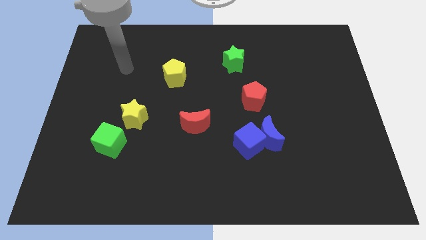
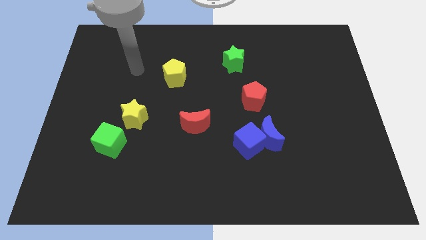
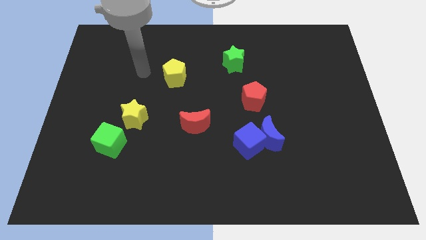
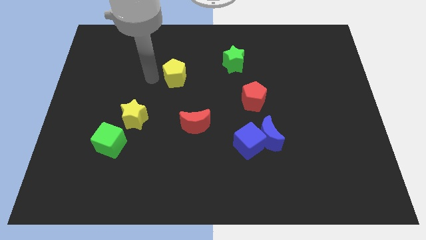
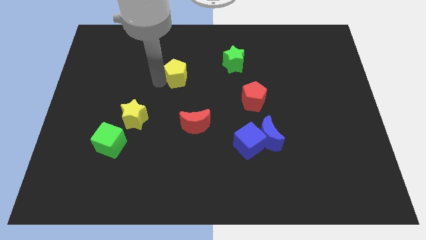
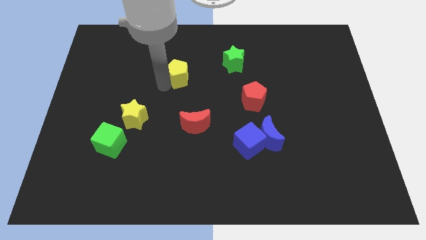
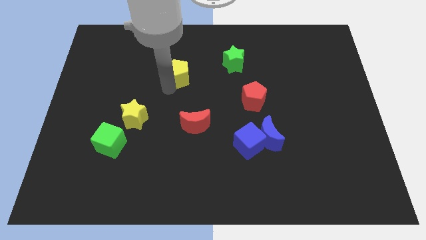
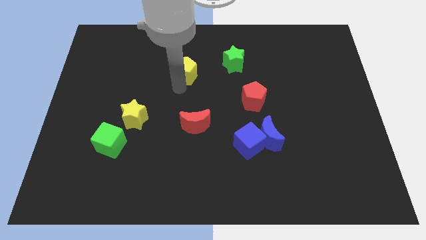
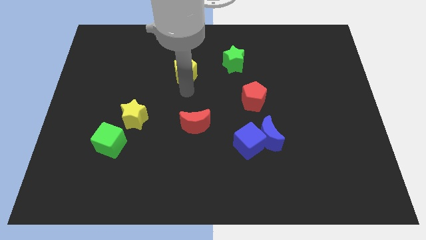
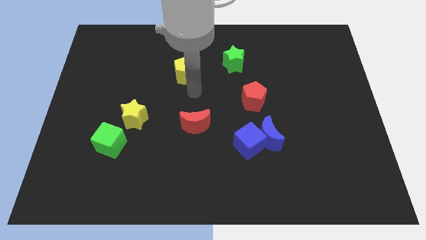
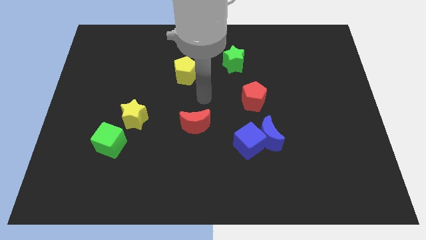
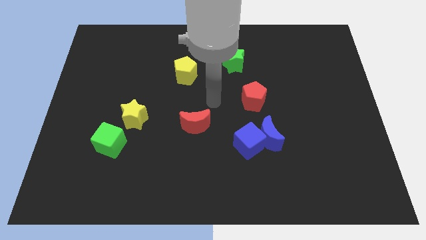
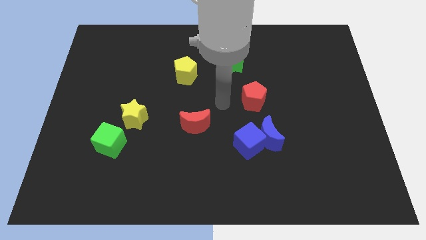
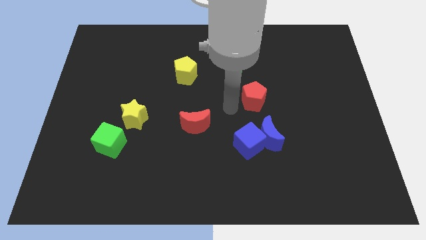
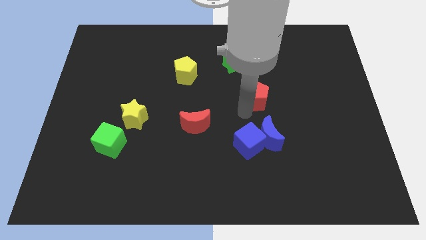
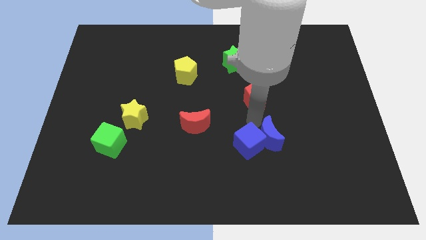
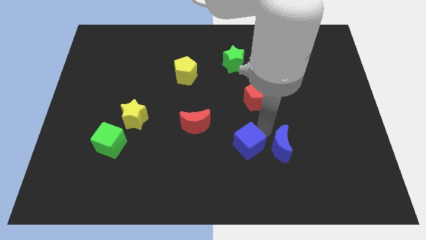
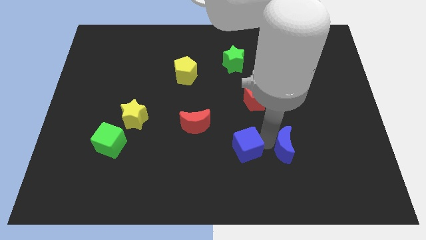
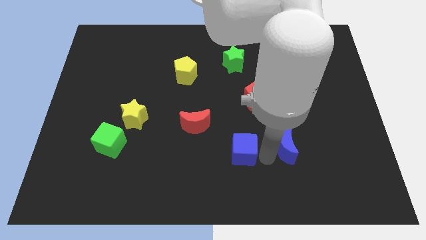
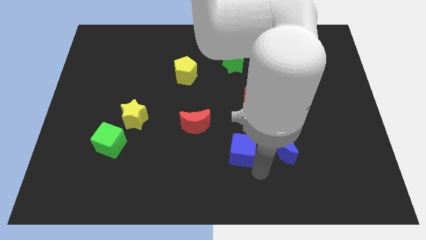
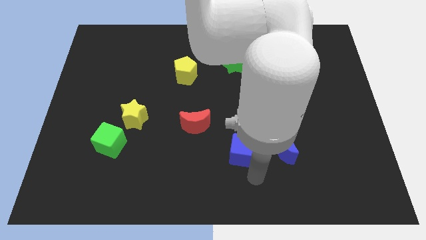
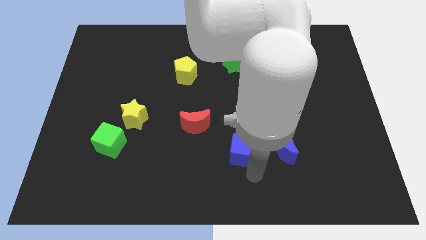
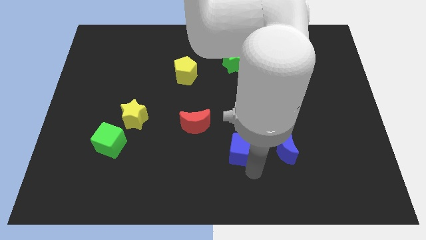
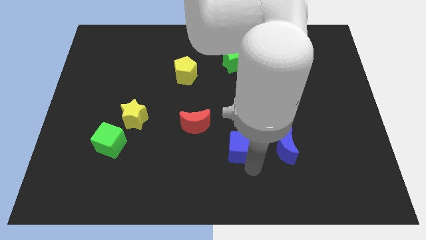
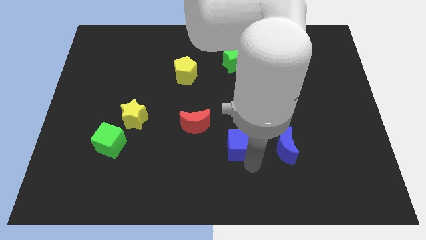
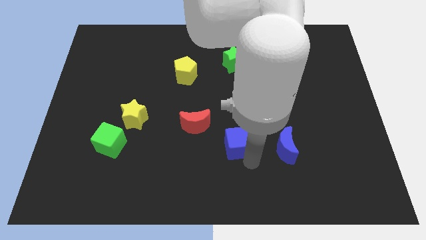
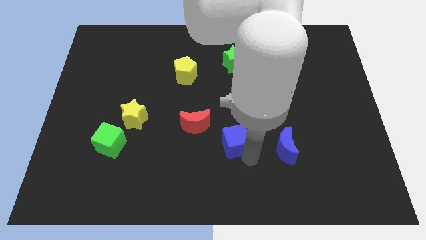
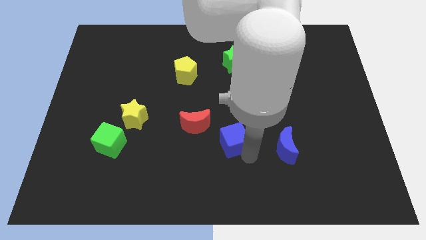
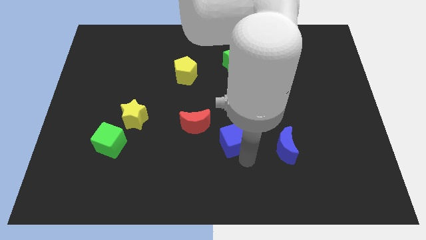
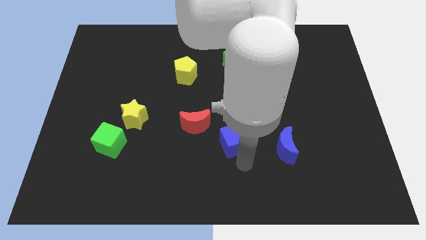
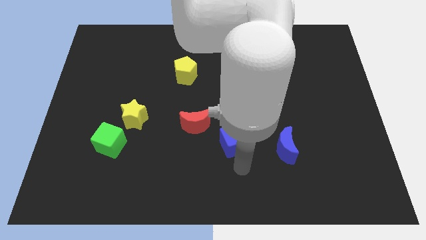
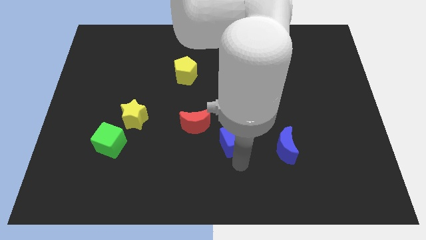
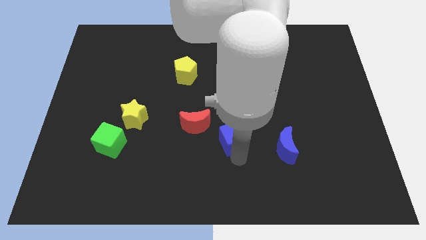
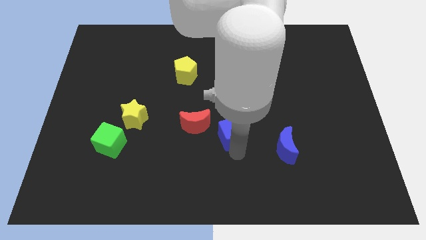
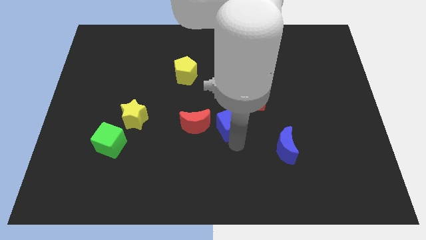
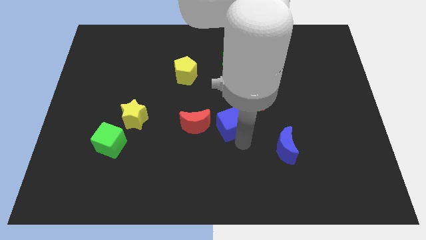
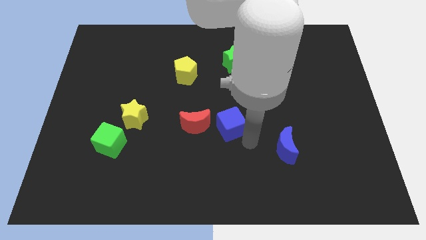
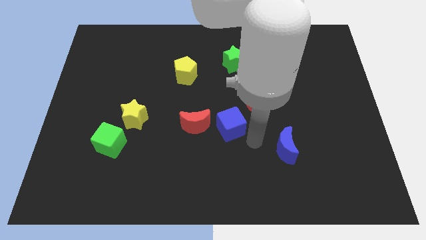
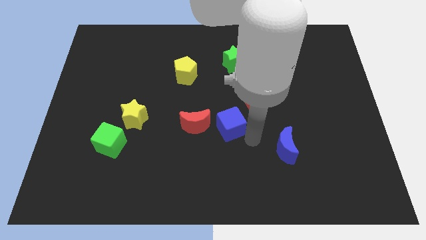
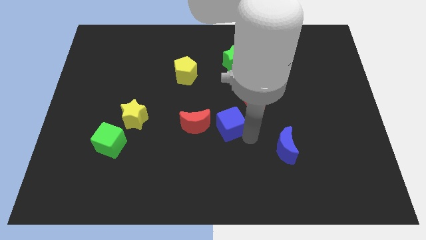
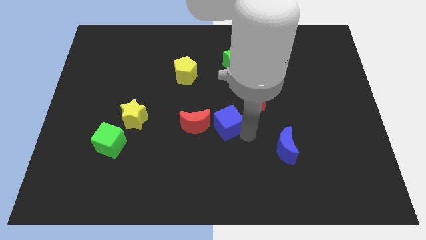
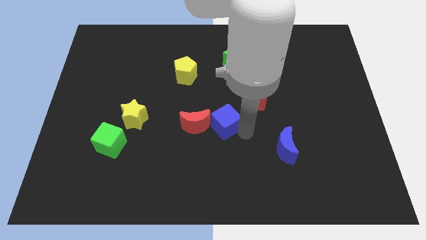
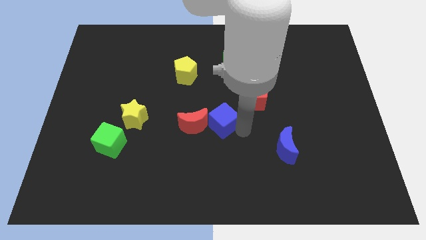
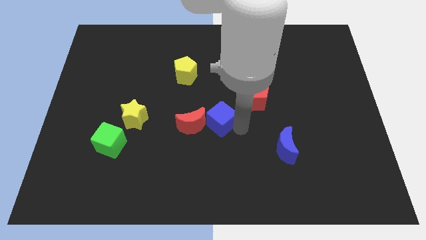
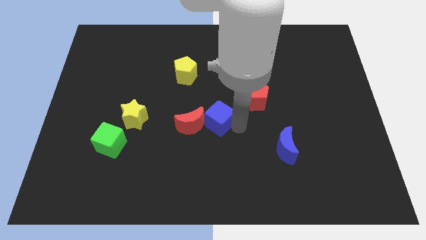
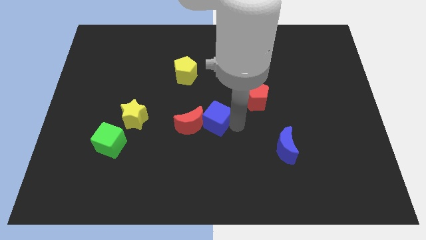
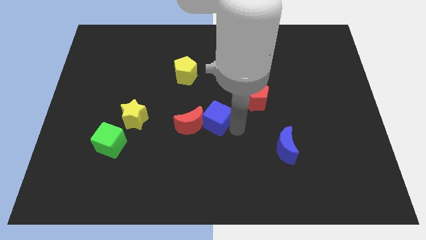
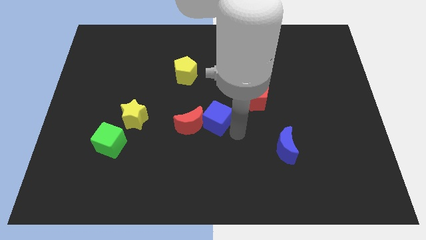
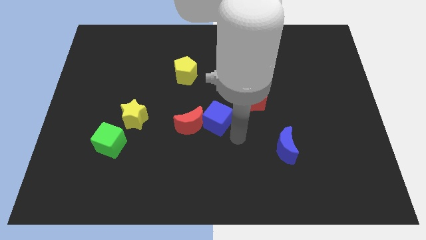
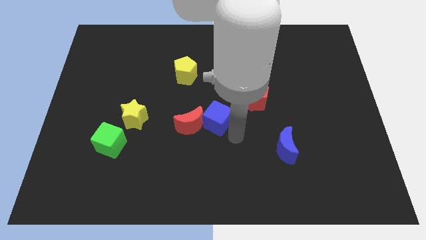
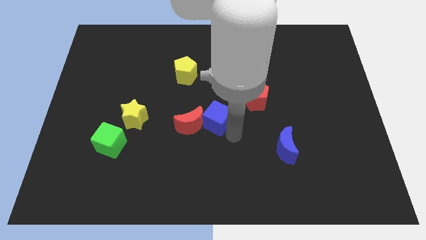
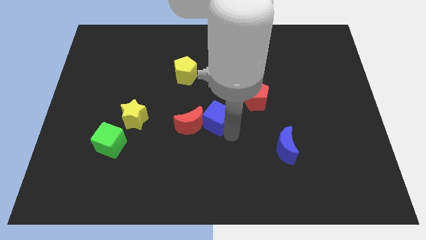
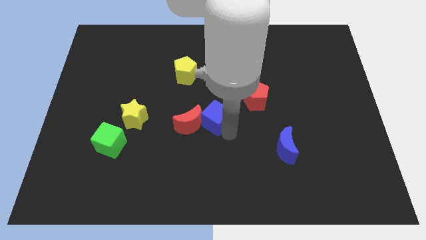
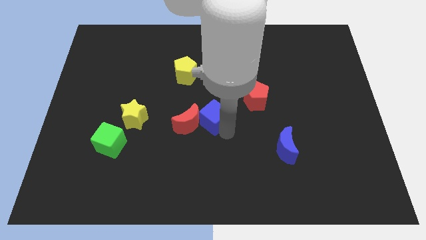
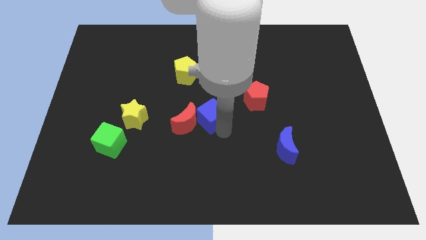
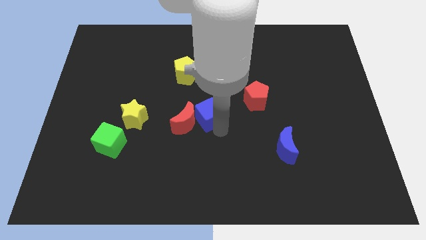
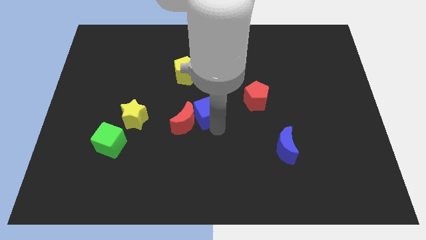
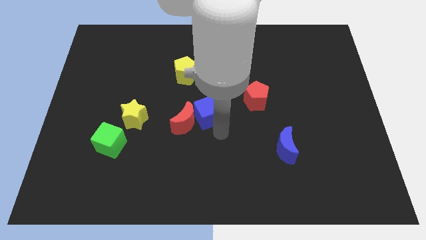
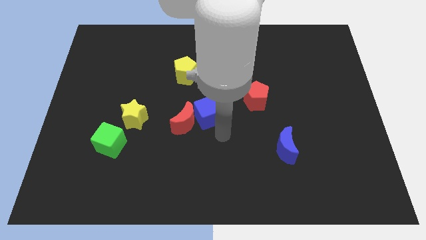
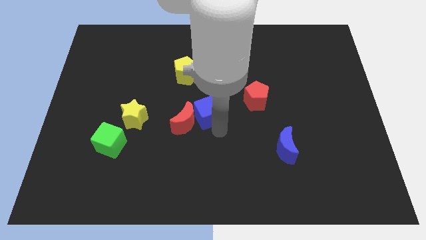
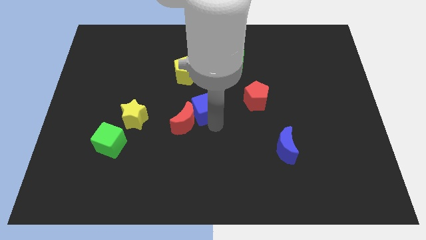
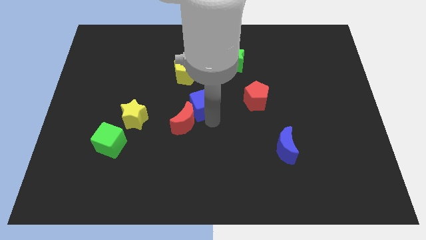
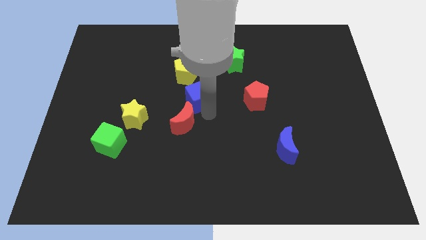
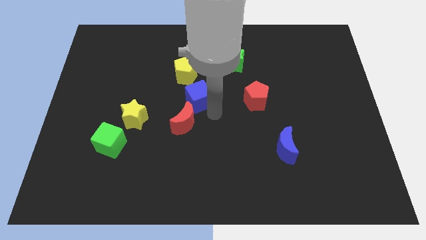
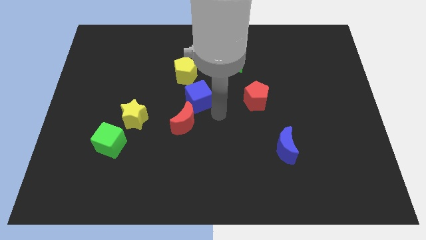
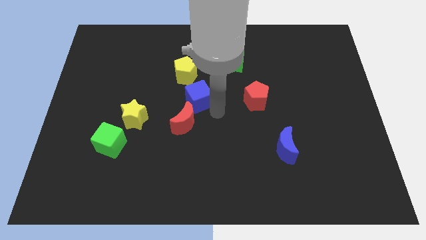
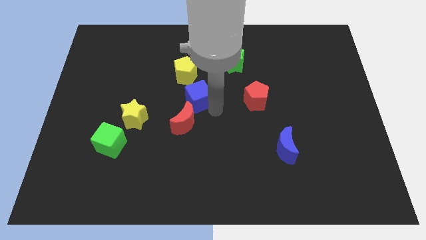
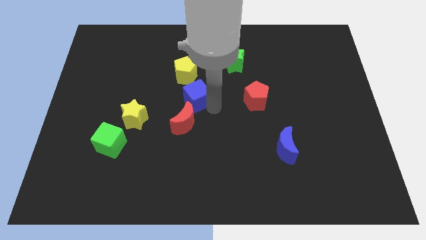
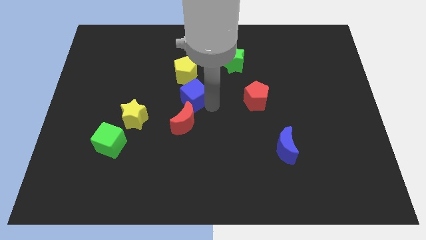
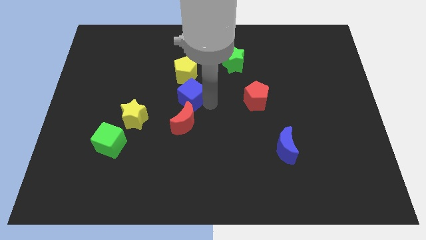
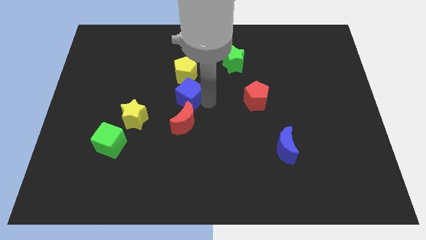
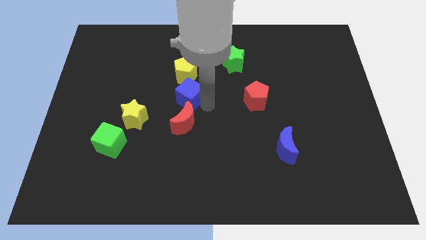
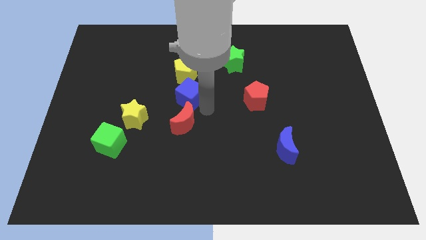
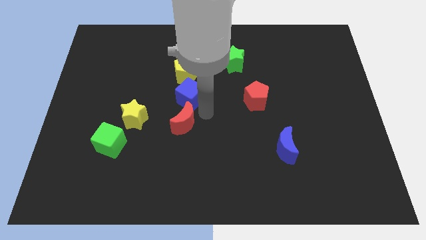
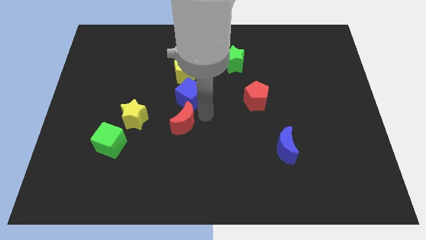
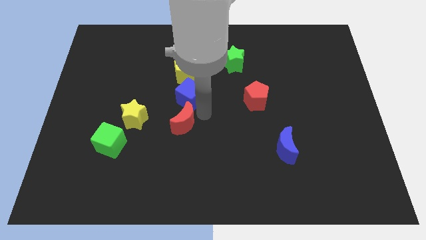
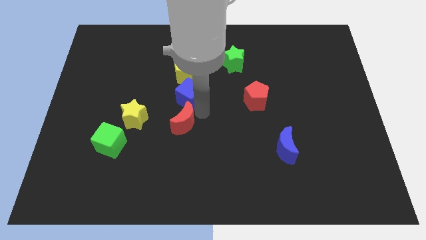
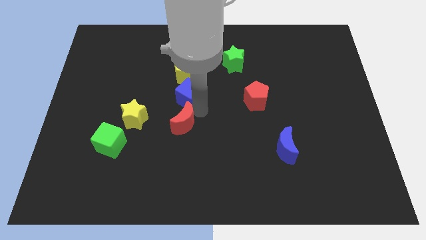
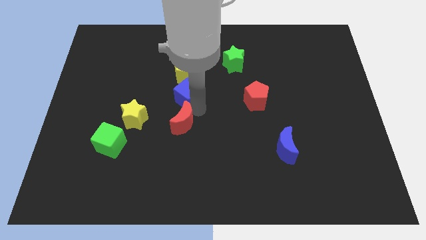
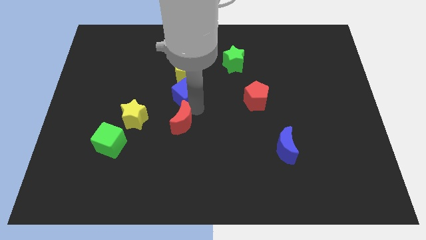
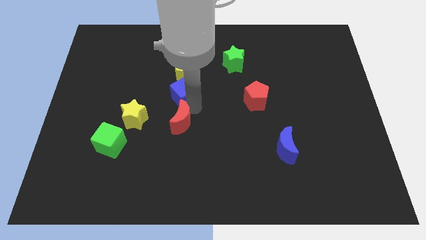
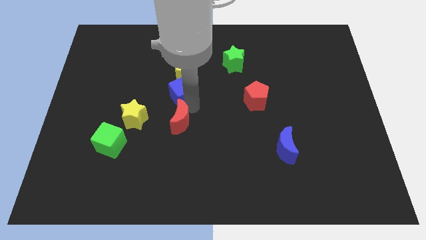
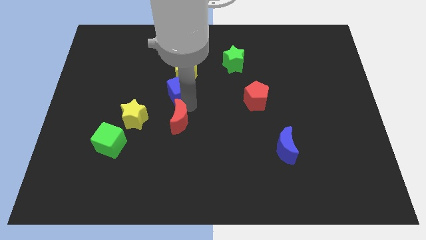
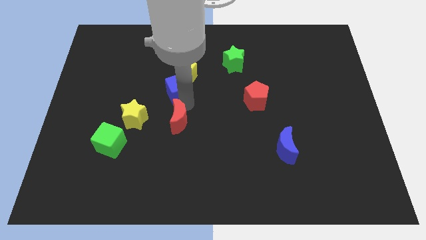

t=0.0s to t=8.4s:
put the blue cube next to the yellow pentagon
